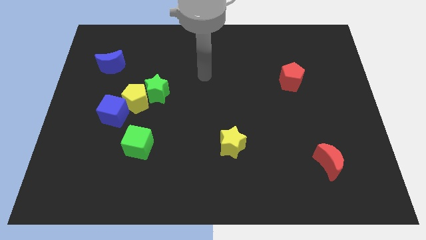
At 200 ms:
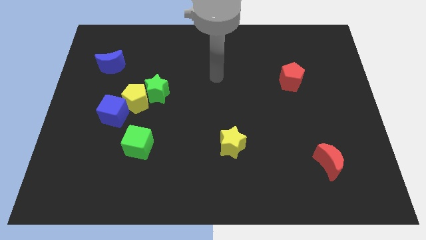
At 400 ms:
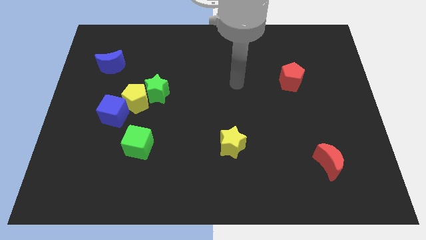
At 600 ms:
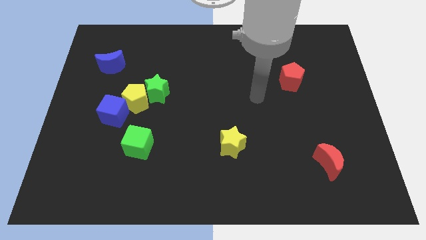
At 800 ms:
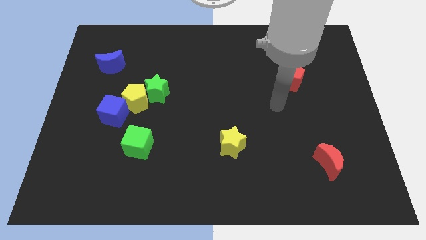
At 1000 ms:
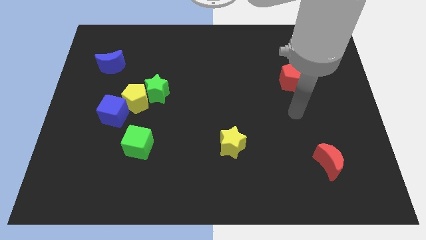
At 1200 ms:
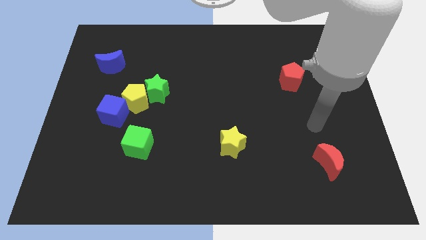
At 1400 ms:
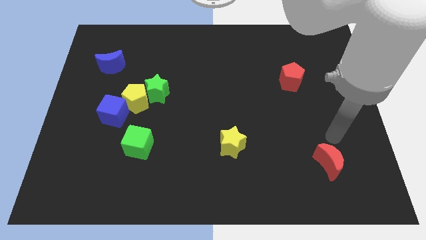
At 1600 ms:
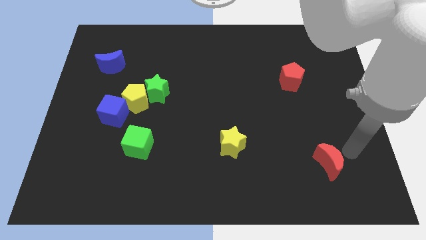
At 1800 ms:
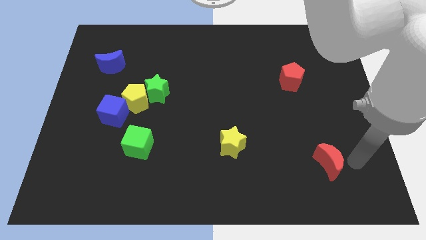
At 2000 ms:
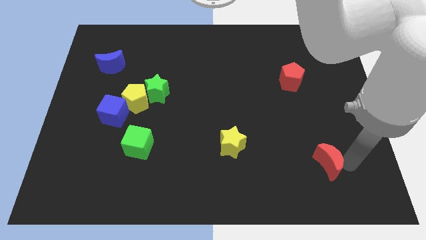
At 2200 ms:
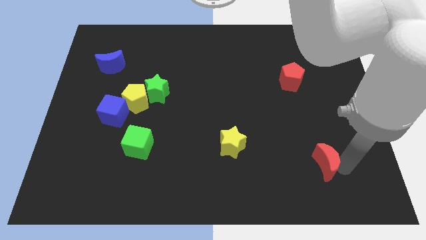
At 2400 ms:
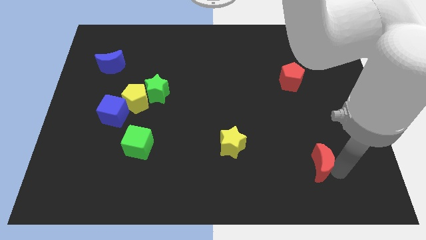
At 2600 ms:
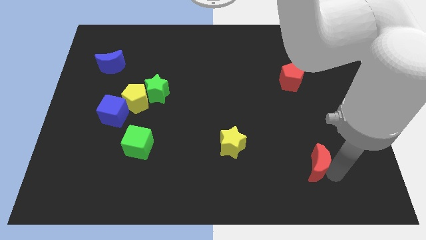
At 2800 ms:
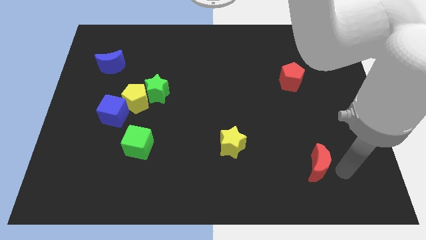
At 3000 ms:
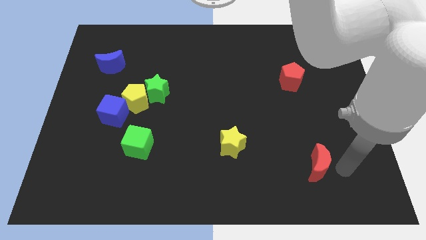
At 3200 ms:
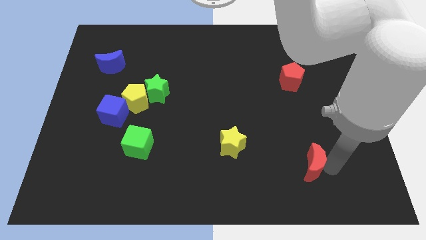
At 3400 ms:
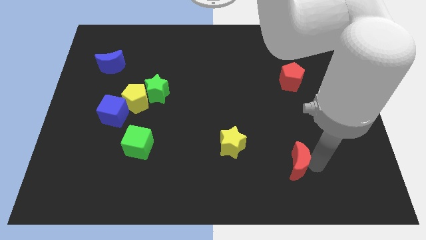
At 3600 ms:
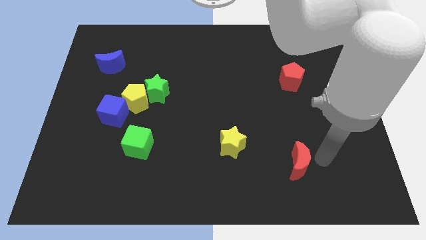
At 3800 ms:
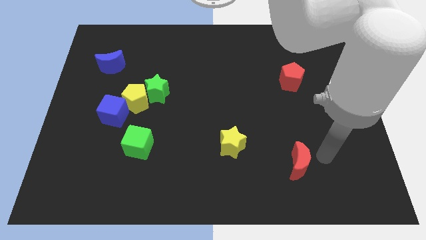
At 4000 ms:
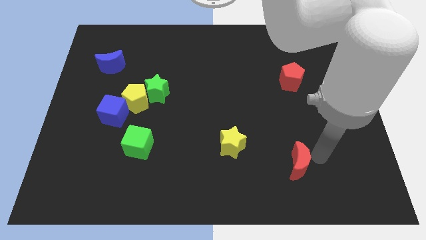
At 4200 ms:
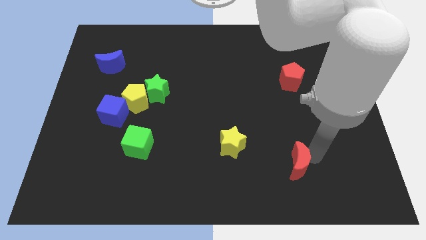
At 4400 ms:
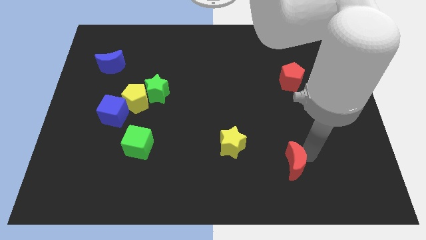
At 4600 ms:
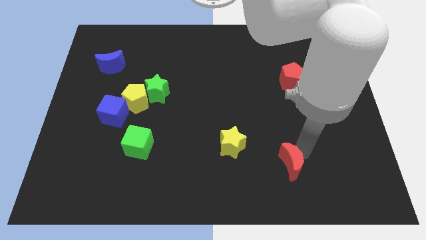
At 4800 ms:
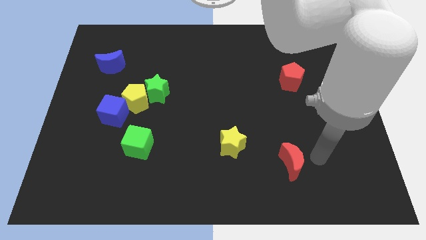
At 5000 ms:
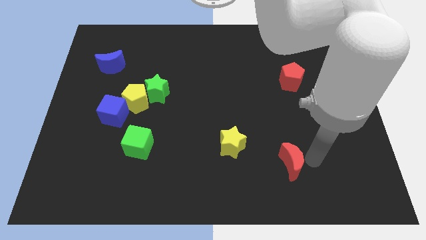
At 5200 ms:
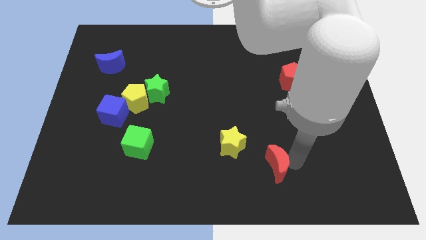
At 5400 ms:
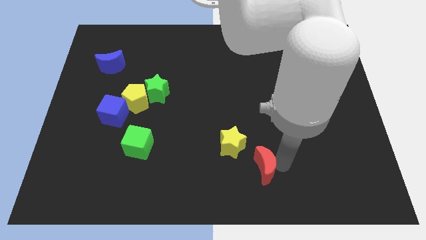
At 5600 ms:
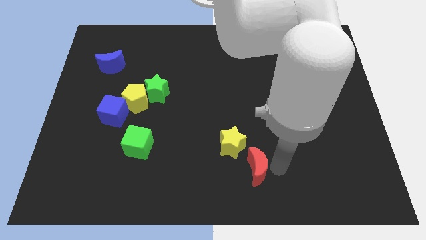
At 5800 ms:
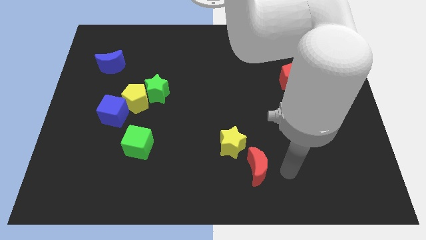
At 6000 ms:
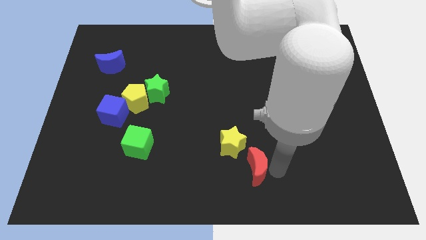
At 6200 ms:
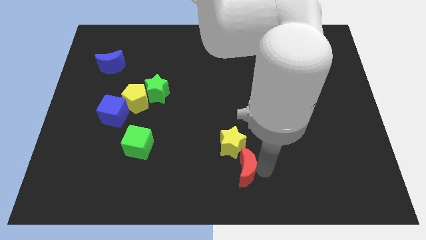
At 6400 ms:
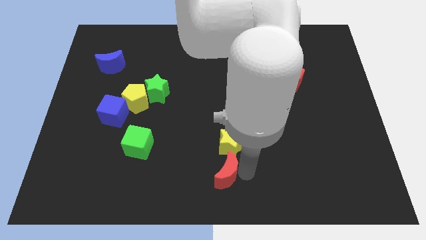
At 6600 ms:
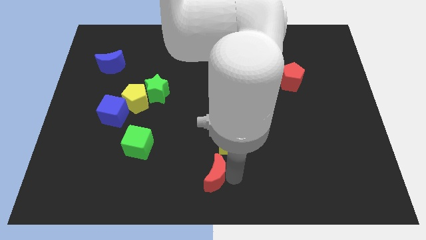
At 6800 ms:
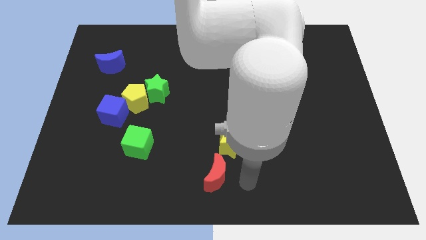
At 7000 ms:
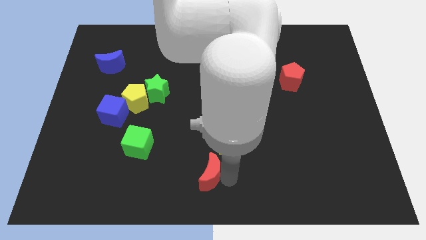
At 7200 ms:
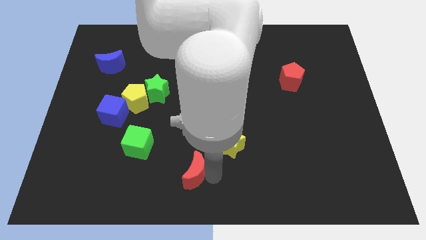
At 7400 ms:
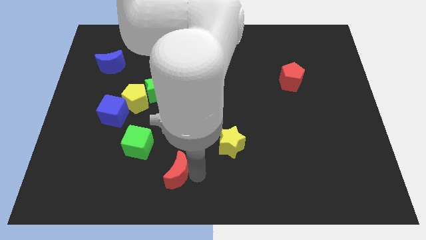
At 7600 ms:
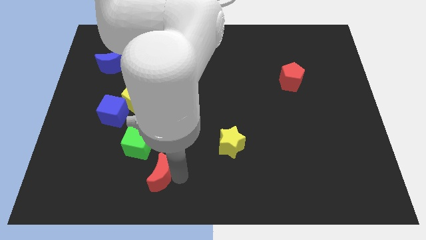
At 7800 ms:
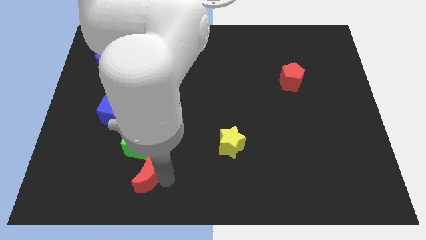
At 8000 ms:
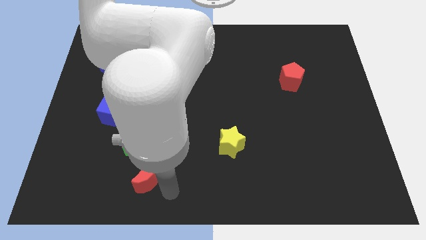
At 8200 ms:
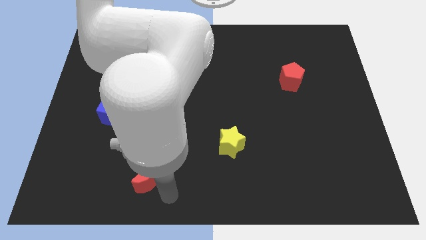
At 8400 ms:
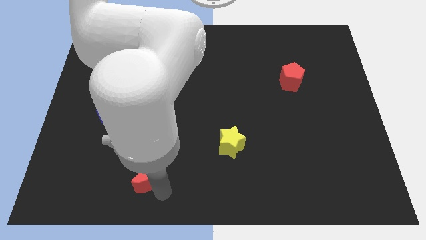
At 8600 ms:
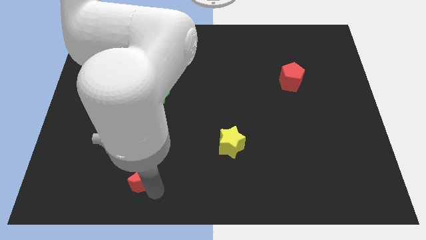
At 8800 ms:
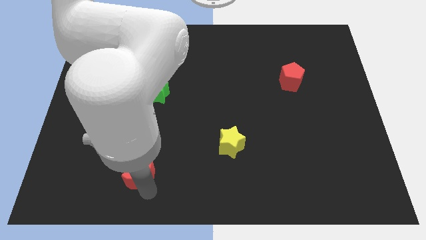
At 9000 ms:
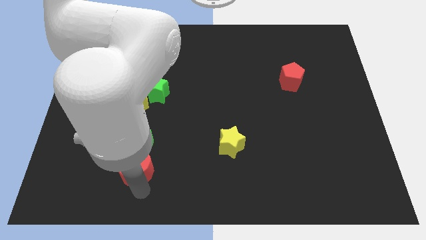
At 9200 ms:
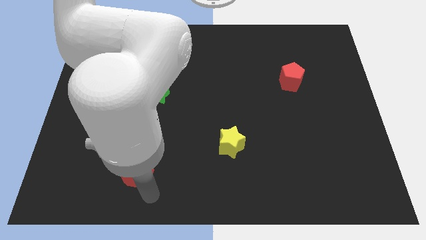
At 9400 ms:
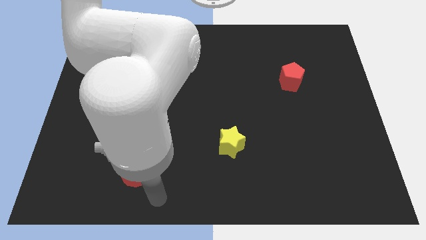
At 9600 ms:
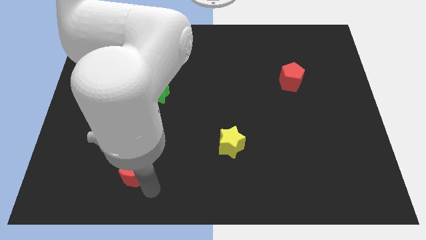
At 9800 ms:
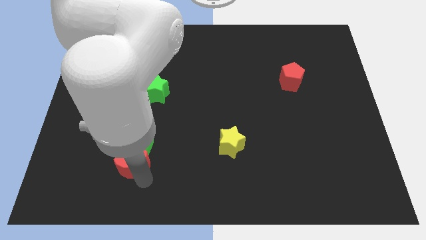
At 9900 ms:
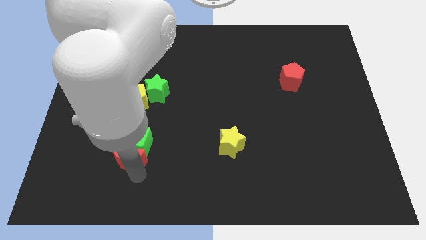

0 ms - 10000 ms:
put the red moon below the yellow pentagon

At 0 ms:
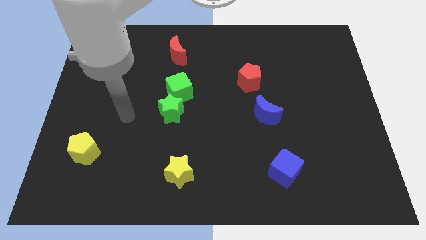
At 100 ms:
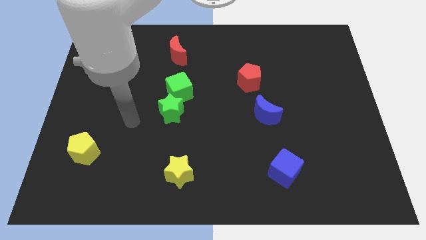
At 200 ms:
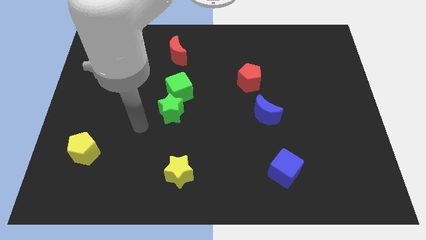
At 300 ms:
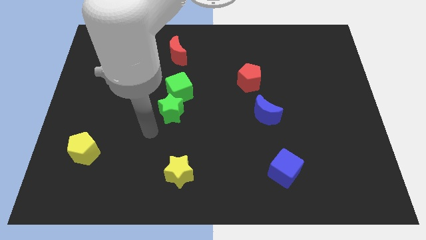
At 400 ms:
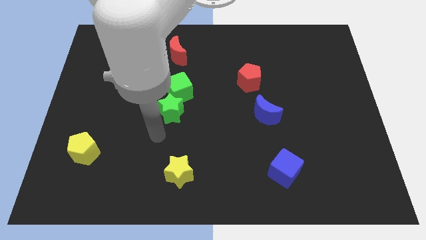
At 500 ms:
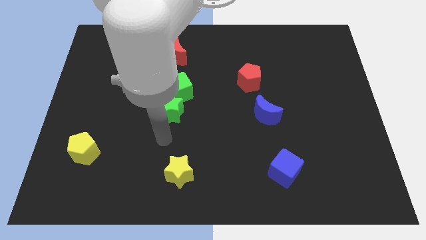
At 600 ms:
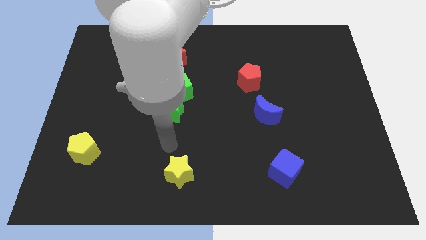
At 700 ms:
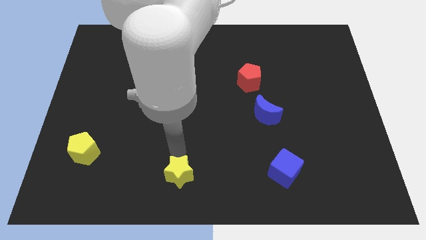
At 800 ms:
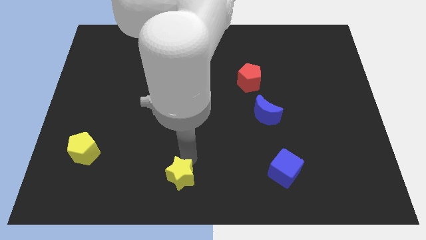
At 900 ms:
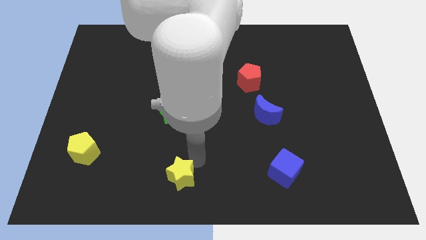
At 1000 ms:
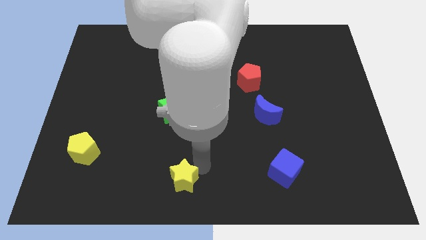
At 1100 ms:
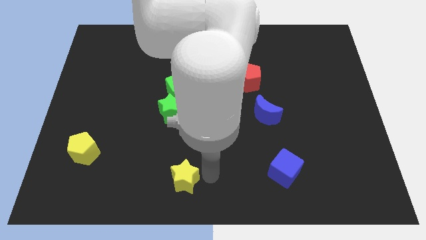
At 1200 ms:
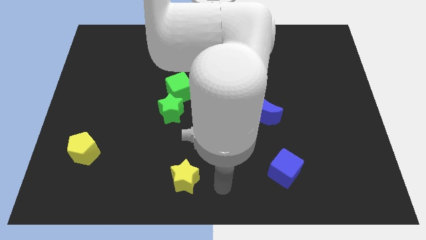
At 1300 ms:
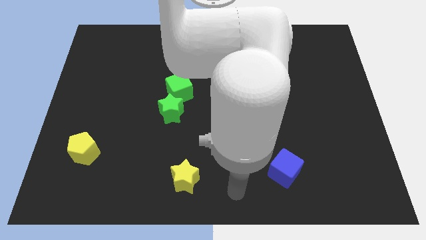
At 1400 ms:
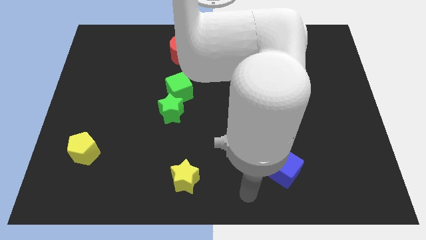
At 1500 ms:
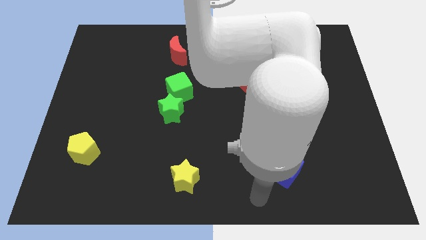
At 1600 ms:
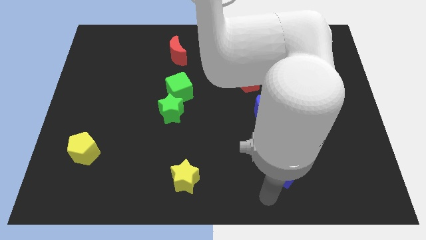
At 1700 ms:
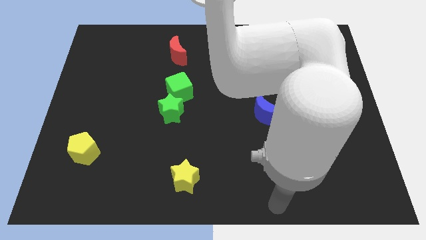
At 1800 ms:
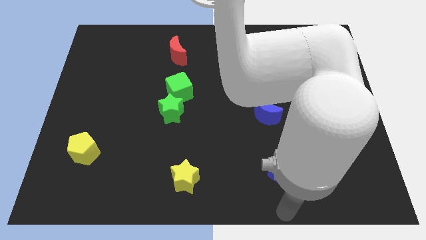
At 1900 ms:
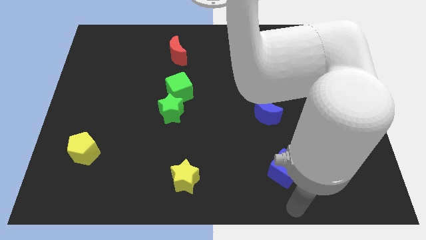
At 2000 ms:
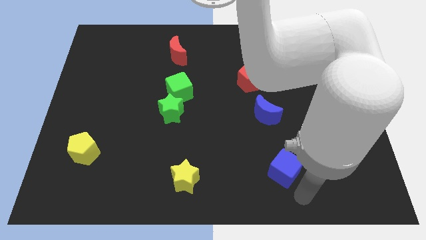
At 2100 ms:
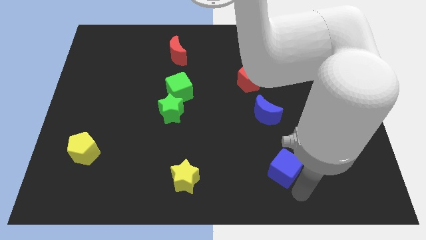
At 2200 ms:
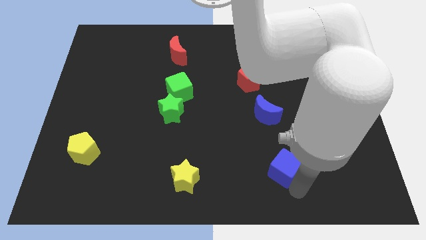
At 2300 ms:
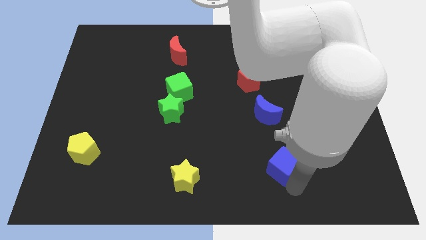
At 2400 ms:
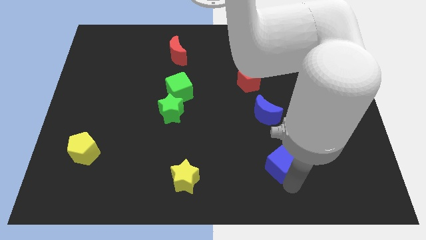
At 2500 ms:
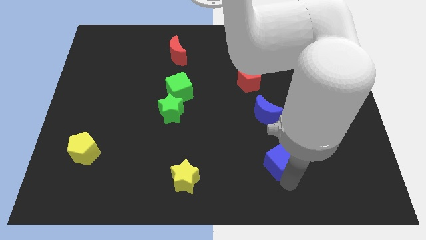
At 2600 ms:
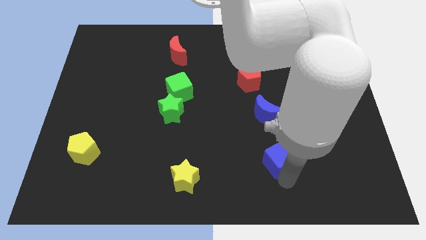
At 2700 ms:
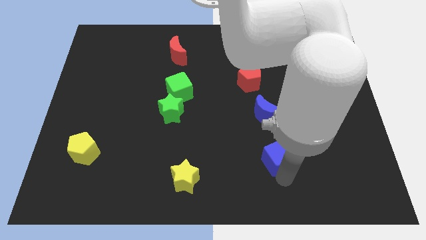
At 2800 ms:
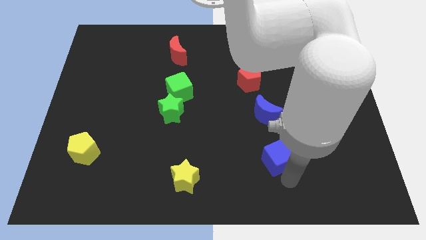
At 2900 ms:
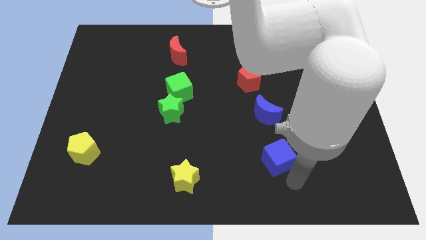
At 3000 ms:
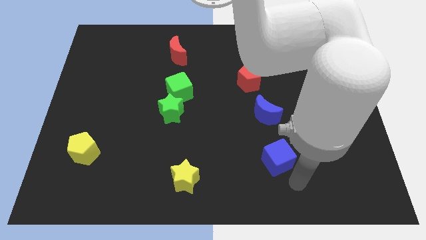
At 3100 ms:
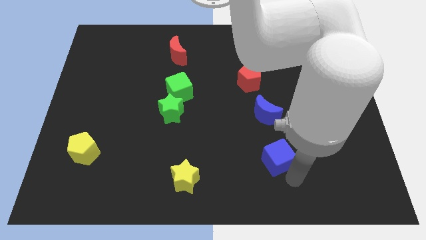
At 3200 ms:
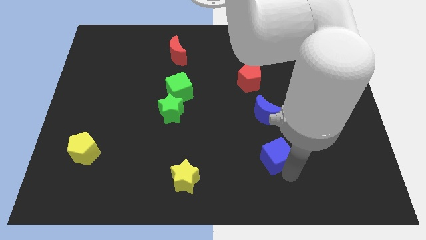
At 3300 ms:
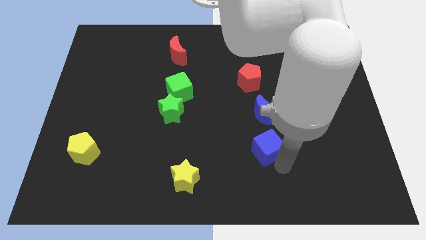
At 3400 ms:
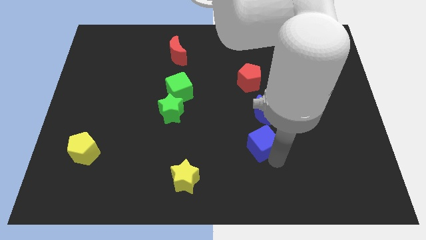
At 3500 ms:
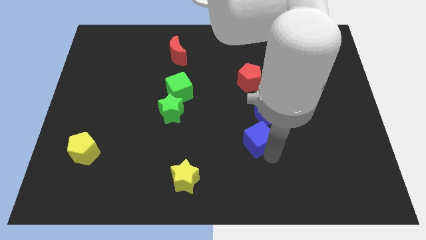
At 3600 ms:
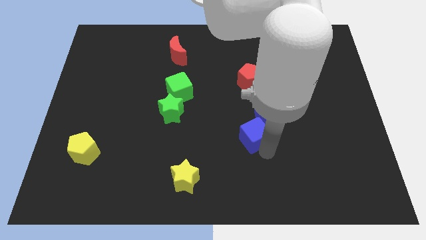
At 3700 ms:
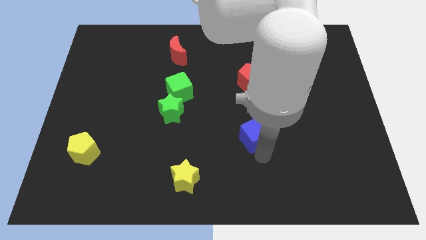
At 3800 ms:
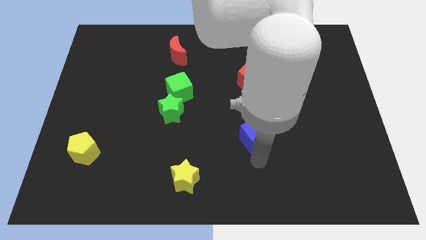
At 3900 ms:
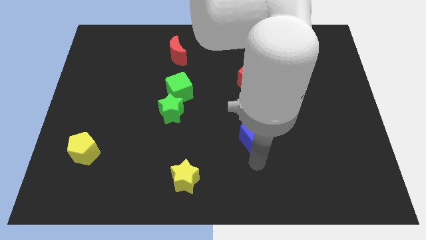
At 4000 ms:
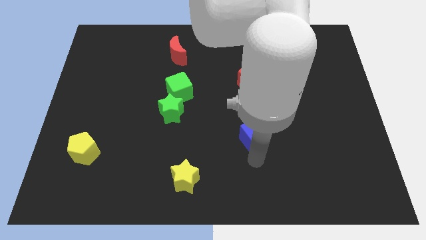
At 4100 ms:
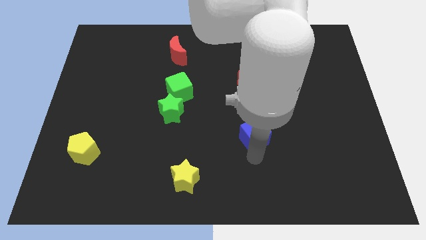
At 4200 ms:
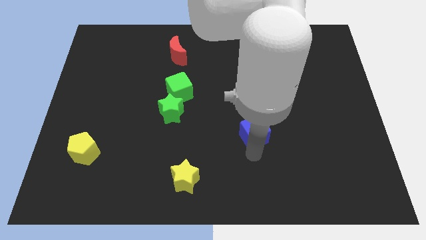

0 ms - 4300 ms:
push the blue cube below the red pentagon
